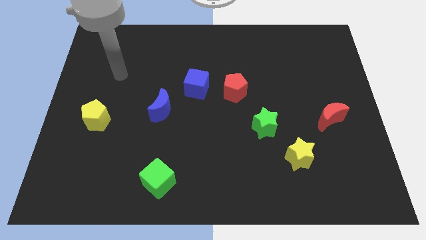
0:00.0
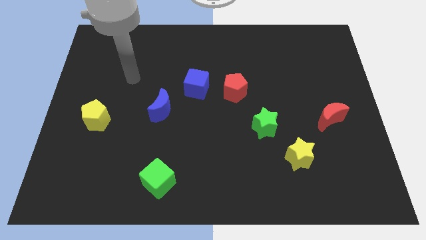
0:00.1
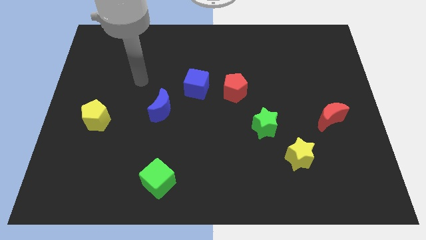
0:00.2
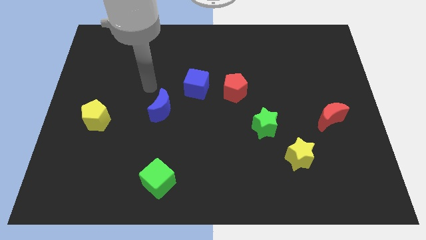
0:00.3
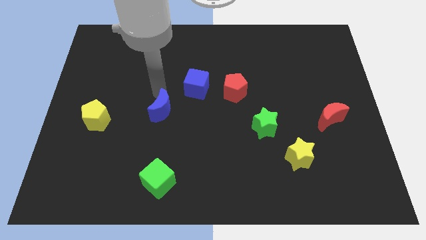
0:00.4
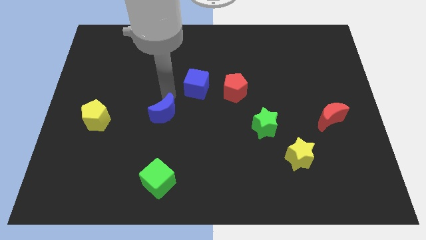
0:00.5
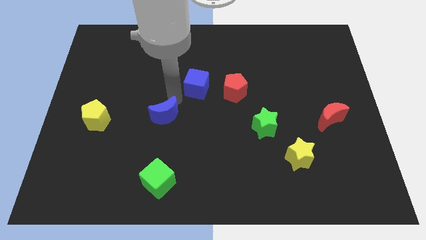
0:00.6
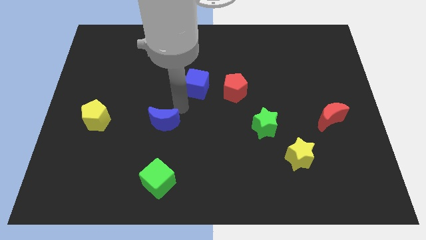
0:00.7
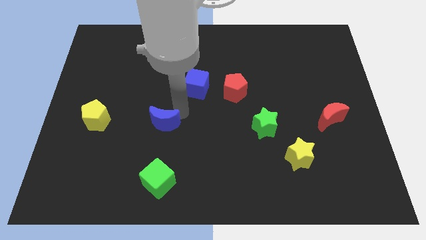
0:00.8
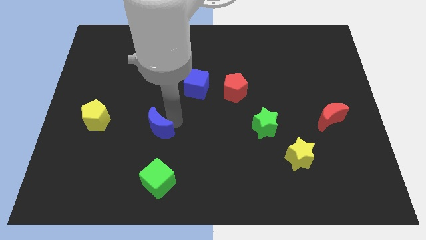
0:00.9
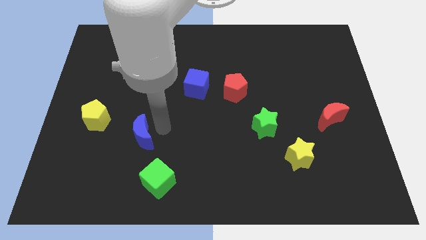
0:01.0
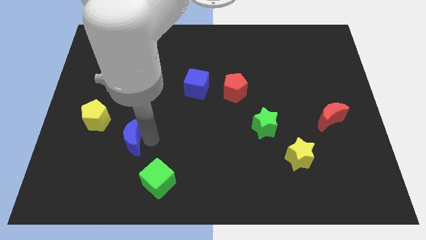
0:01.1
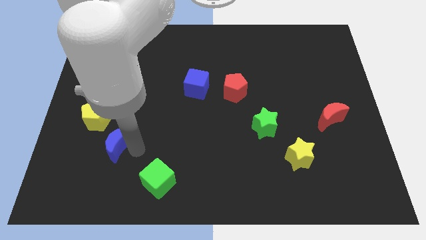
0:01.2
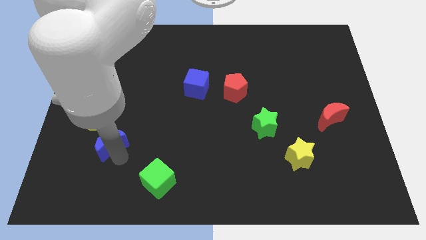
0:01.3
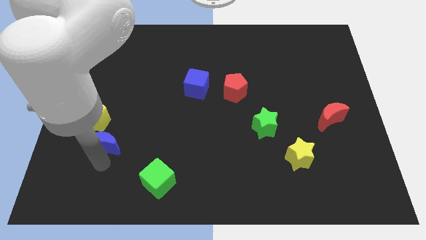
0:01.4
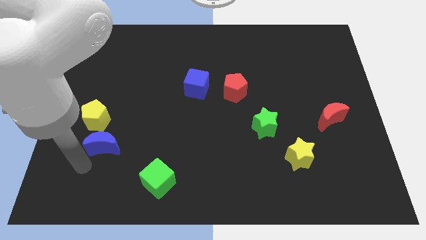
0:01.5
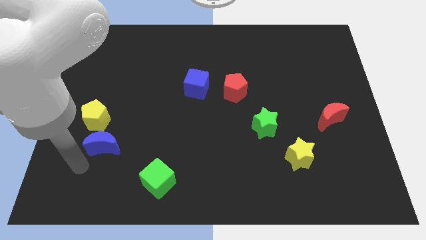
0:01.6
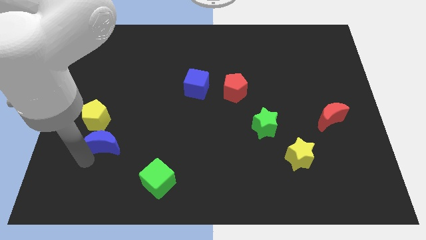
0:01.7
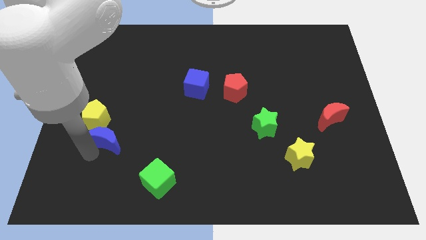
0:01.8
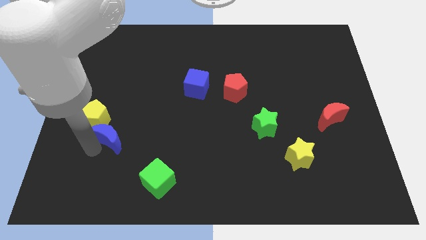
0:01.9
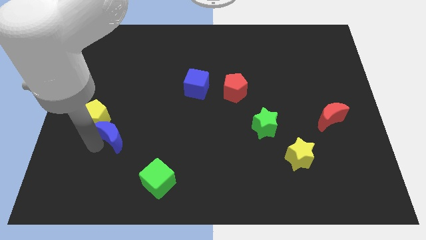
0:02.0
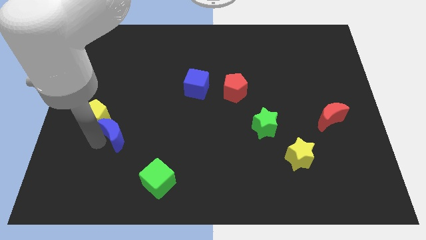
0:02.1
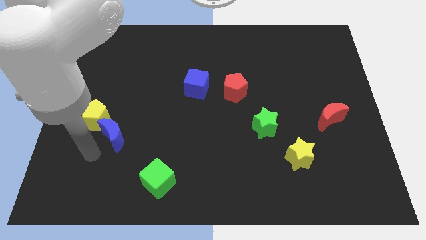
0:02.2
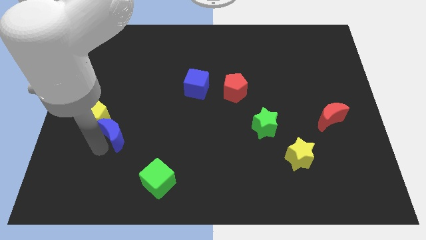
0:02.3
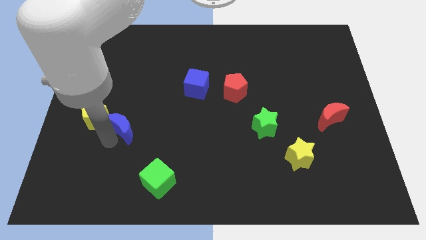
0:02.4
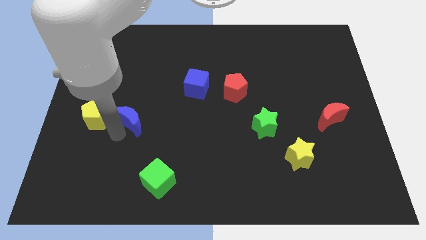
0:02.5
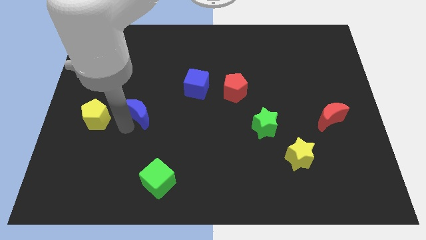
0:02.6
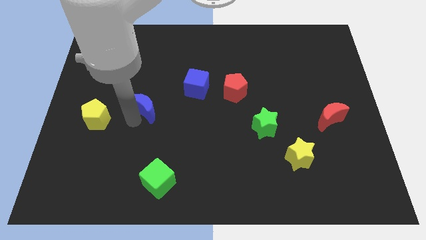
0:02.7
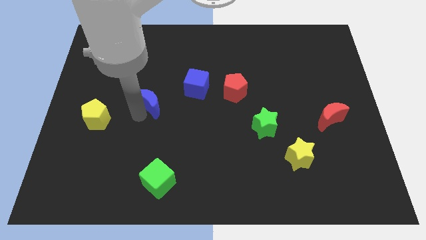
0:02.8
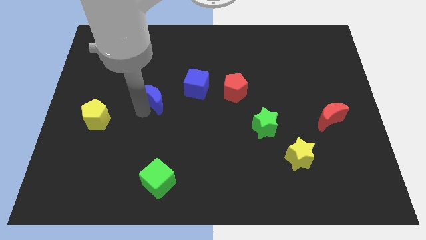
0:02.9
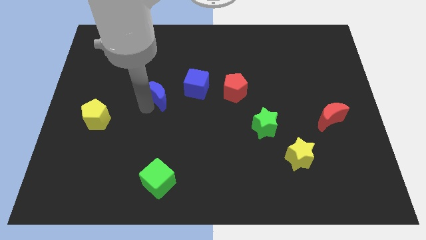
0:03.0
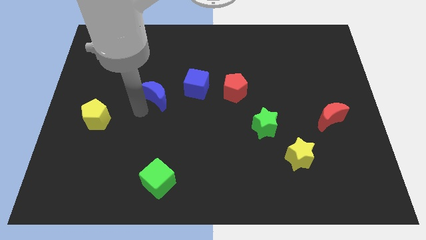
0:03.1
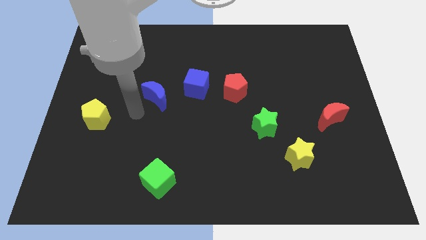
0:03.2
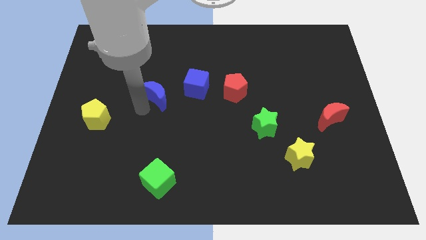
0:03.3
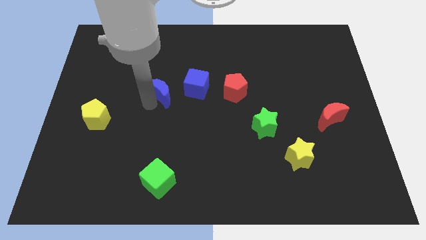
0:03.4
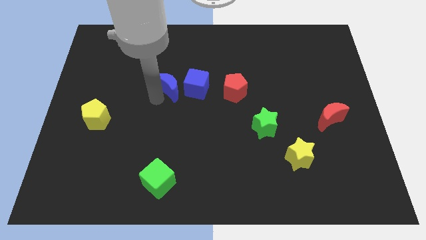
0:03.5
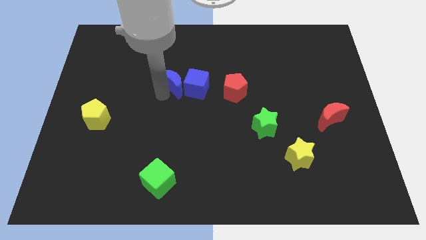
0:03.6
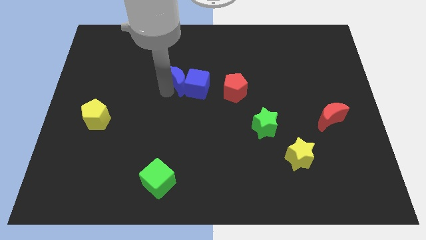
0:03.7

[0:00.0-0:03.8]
push the blue moon up and then right somewhat

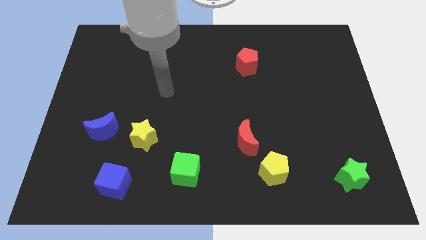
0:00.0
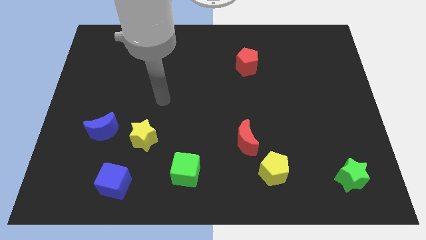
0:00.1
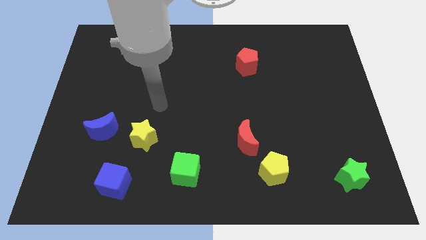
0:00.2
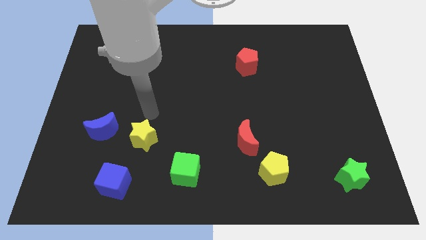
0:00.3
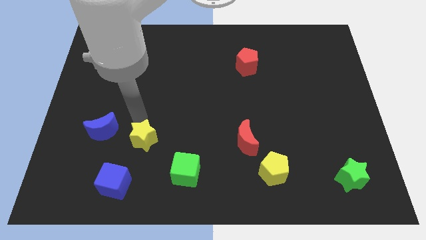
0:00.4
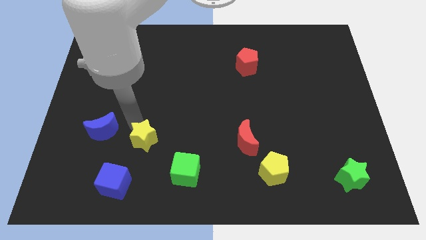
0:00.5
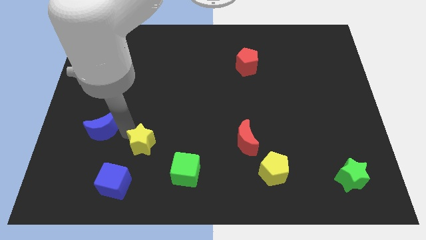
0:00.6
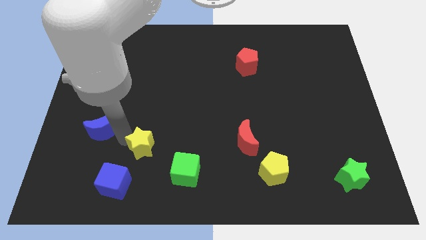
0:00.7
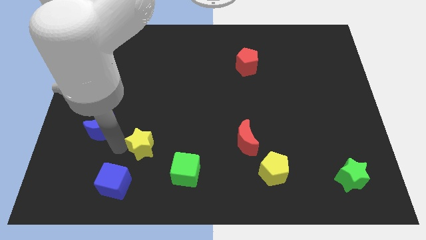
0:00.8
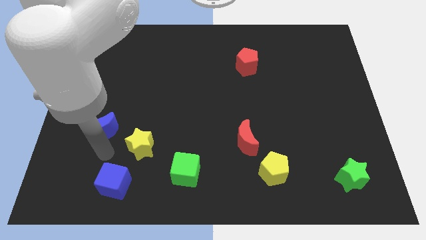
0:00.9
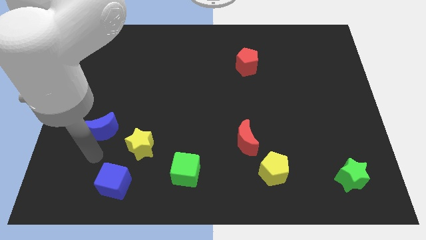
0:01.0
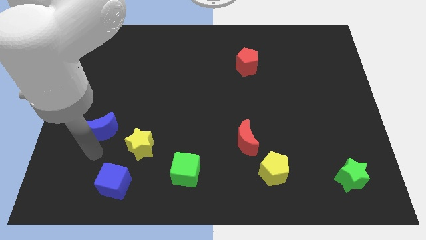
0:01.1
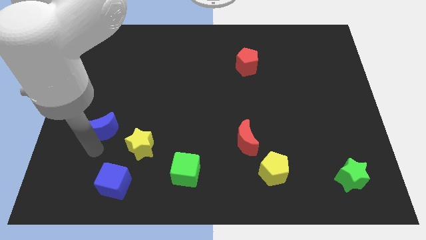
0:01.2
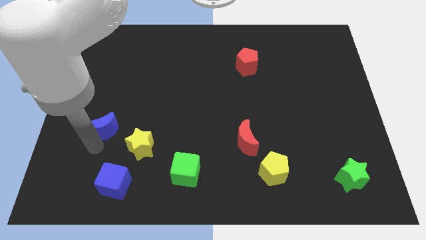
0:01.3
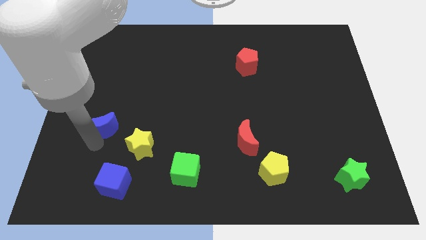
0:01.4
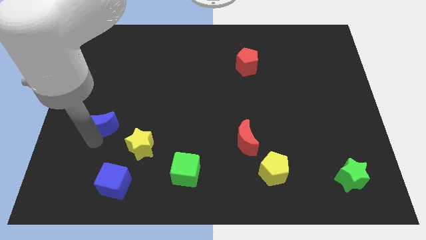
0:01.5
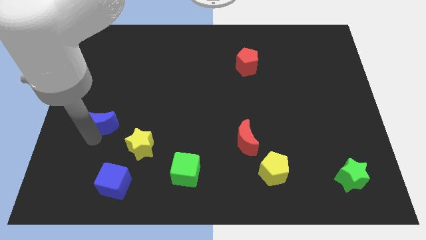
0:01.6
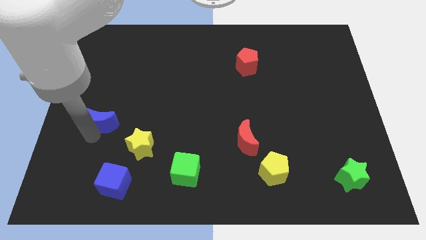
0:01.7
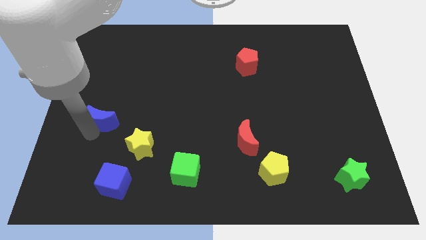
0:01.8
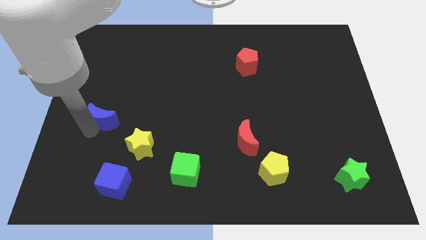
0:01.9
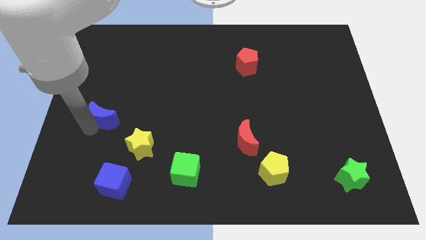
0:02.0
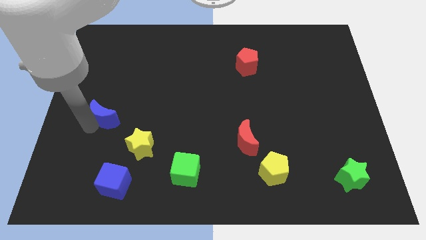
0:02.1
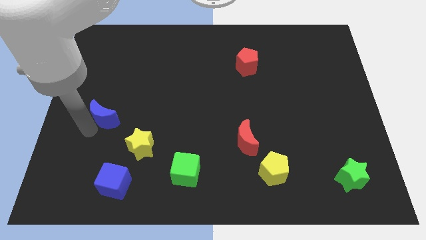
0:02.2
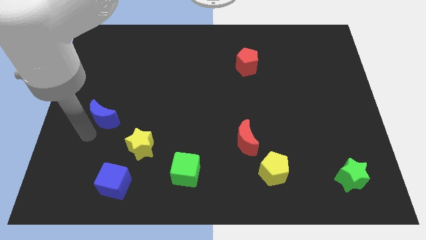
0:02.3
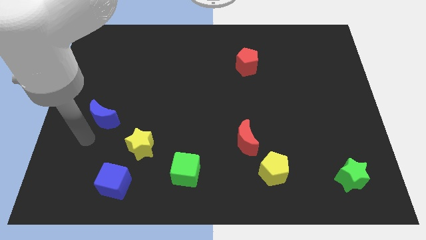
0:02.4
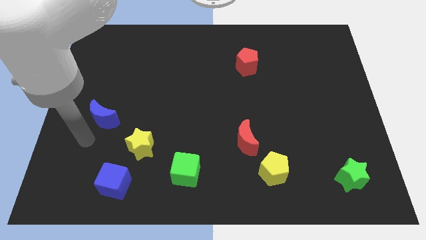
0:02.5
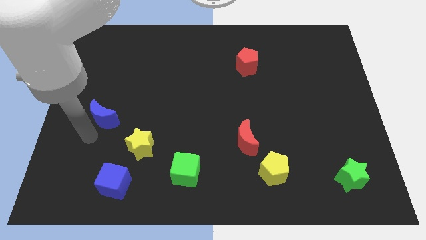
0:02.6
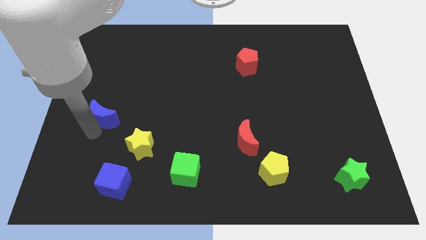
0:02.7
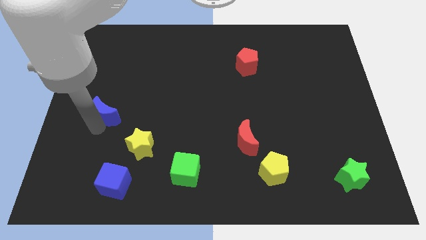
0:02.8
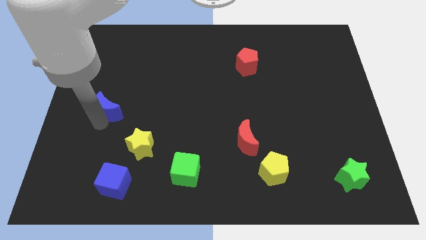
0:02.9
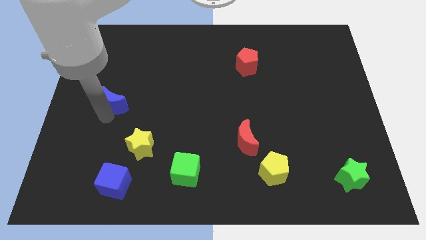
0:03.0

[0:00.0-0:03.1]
slightly slide the blue moon upwards

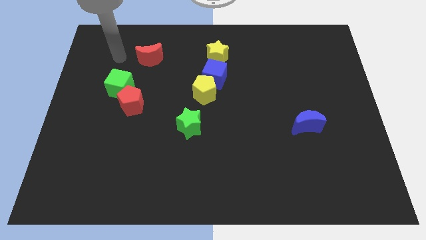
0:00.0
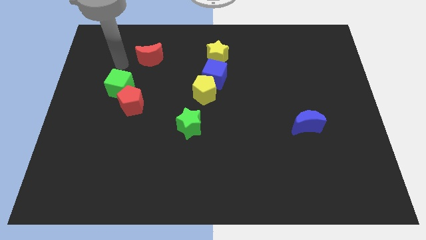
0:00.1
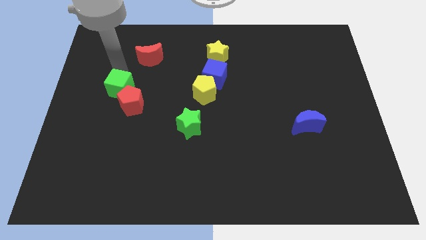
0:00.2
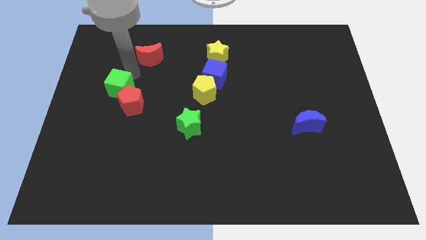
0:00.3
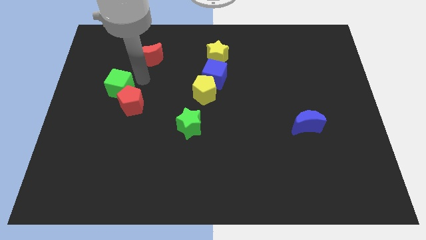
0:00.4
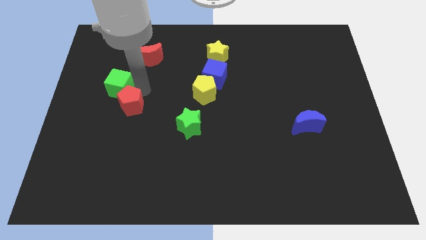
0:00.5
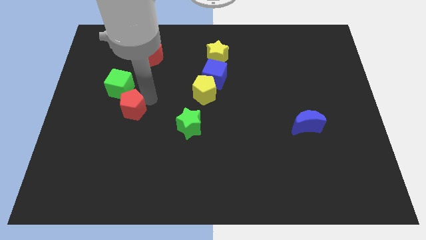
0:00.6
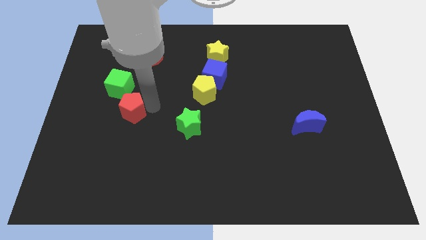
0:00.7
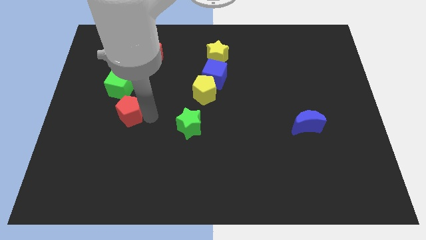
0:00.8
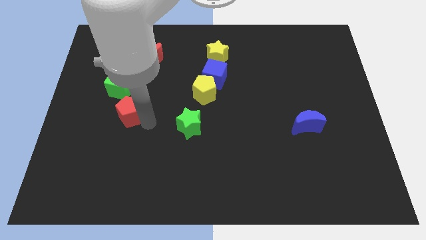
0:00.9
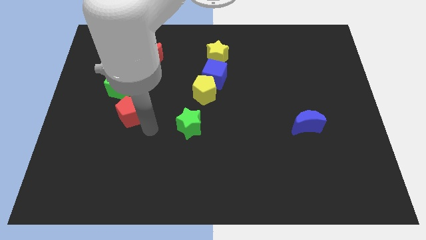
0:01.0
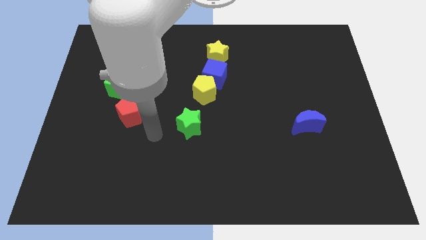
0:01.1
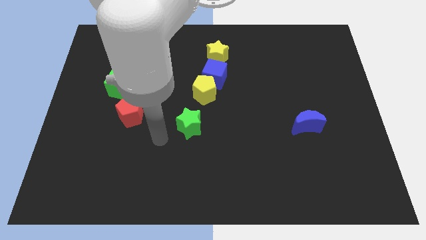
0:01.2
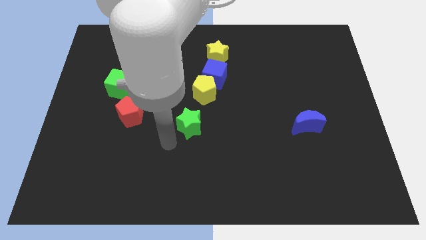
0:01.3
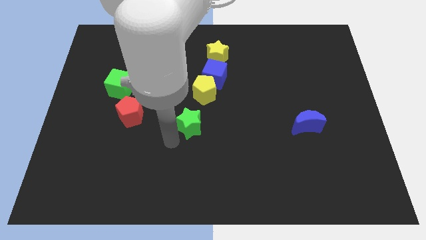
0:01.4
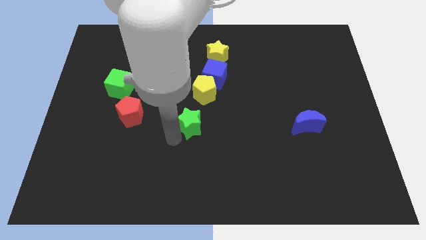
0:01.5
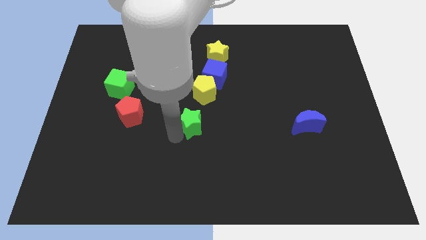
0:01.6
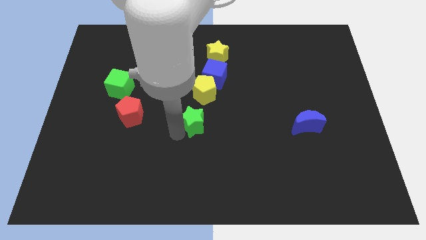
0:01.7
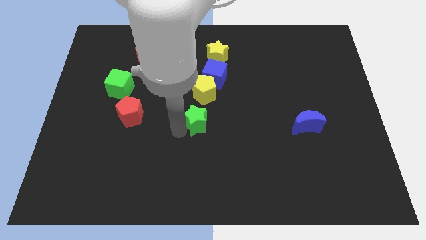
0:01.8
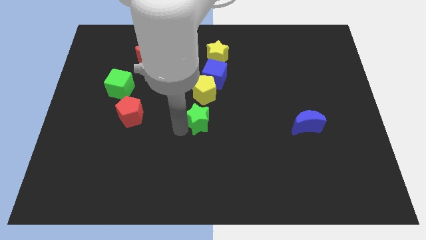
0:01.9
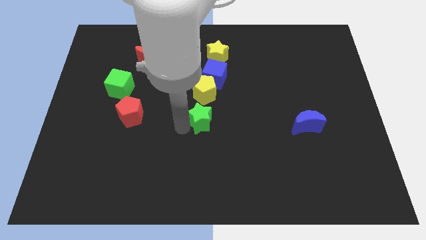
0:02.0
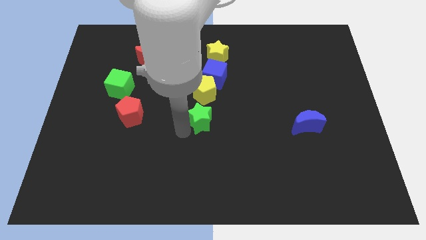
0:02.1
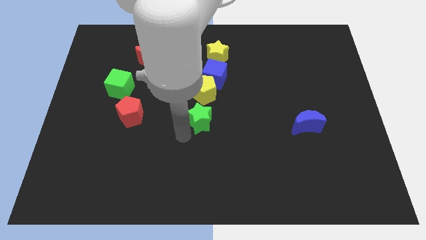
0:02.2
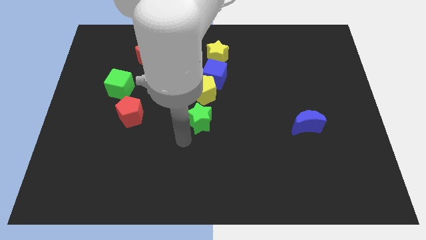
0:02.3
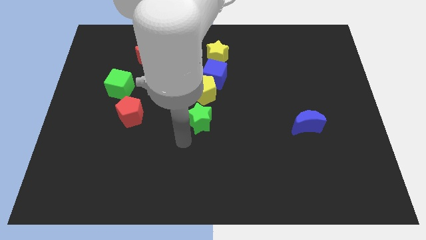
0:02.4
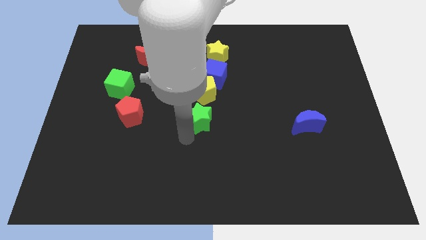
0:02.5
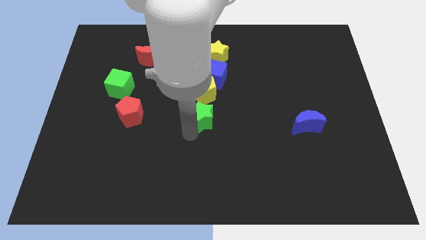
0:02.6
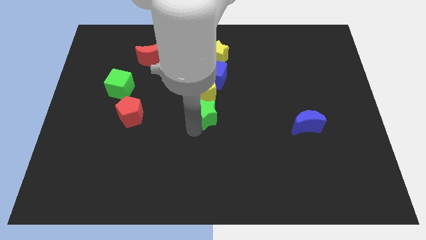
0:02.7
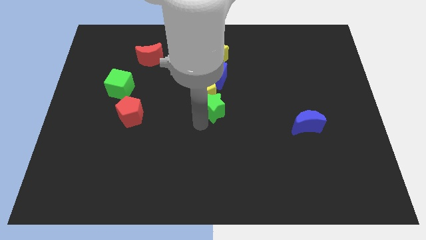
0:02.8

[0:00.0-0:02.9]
push the green star a little bit upwards and then right
